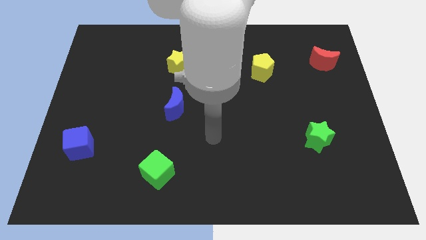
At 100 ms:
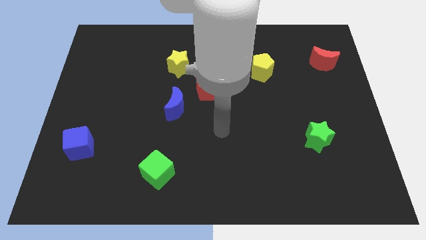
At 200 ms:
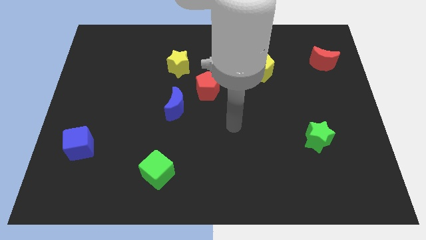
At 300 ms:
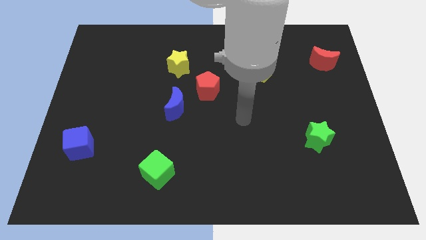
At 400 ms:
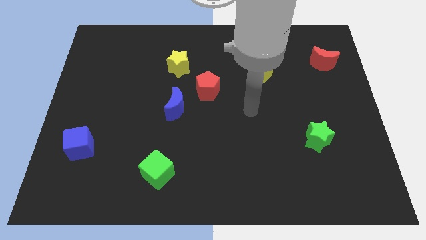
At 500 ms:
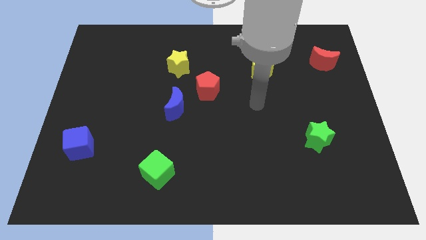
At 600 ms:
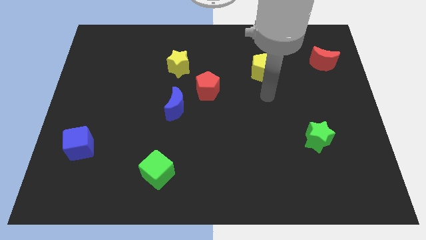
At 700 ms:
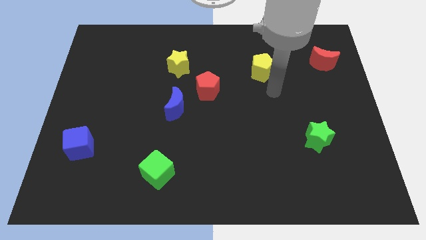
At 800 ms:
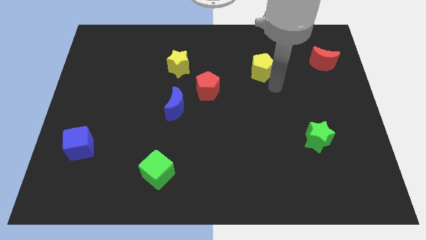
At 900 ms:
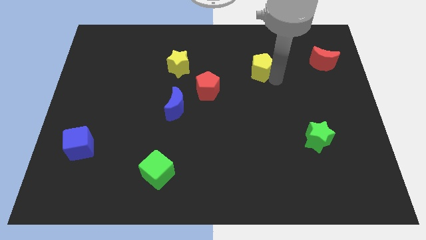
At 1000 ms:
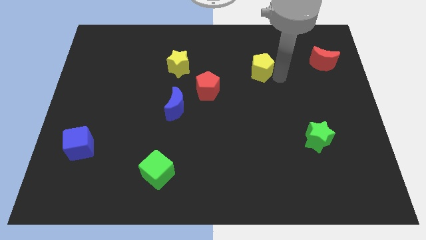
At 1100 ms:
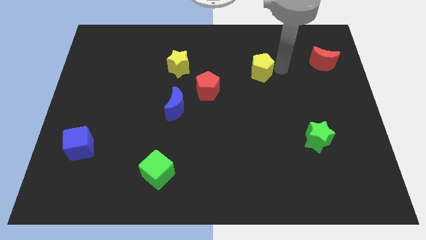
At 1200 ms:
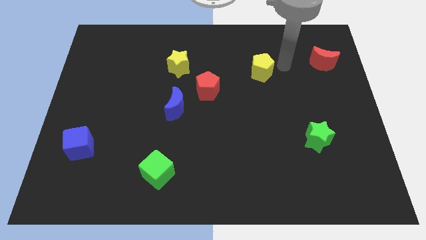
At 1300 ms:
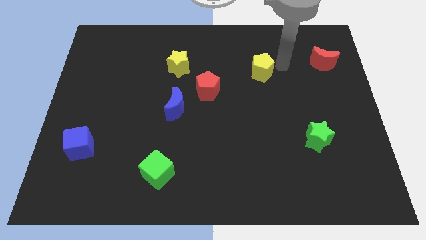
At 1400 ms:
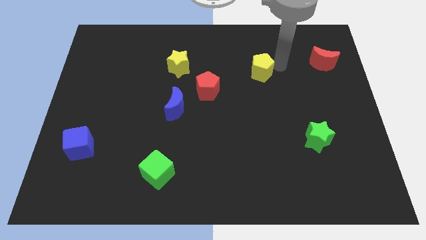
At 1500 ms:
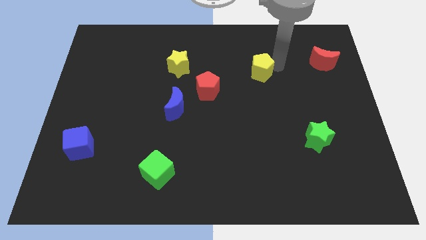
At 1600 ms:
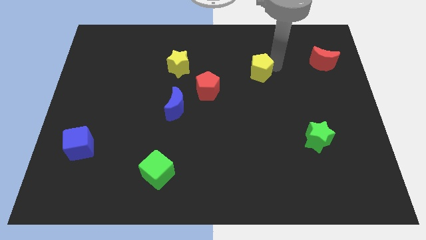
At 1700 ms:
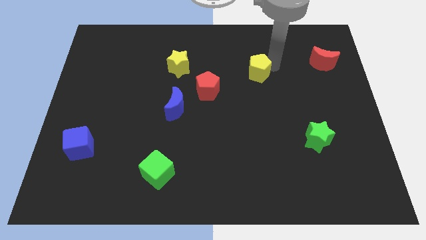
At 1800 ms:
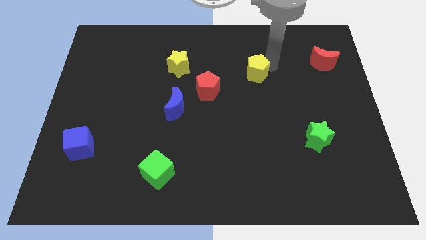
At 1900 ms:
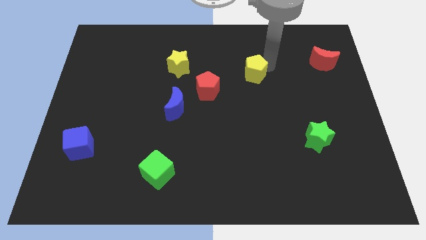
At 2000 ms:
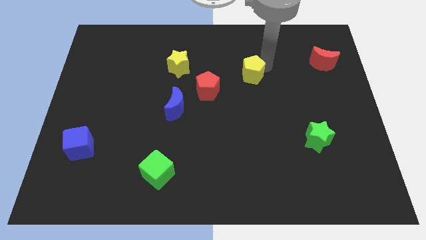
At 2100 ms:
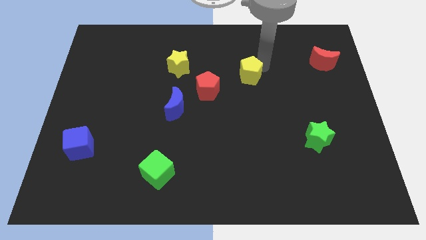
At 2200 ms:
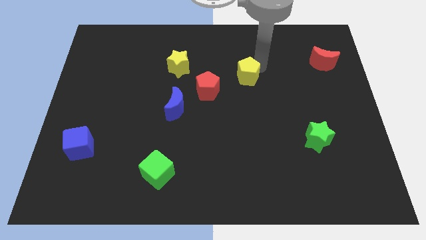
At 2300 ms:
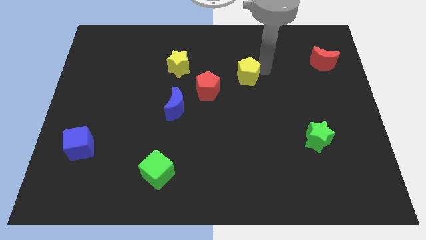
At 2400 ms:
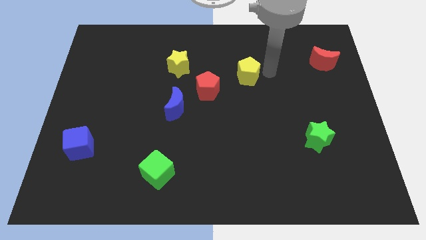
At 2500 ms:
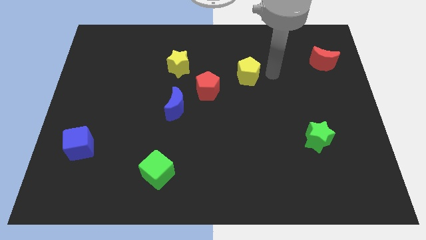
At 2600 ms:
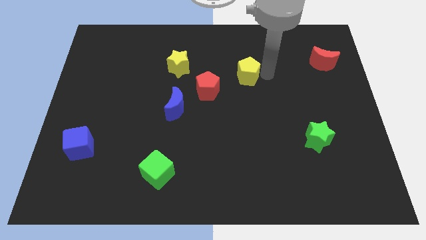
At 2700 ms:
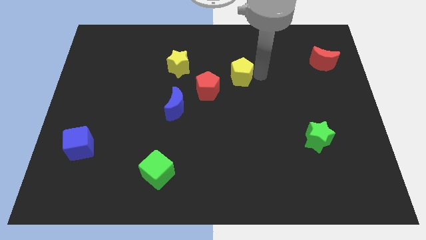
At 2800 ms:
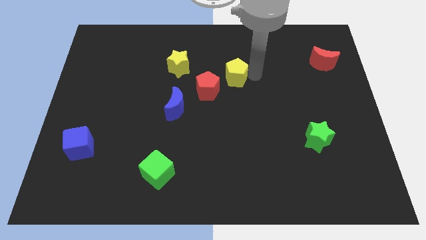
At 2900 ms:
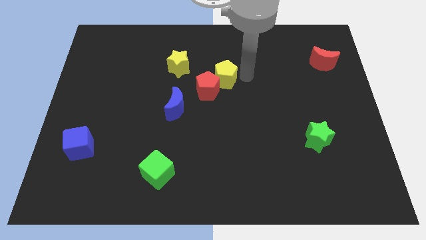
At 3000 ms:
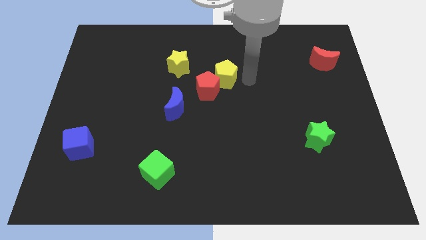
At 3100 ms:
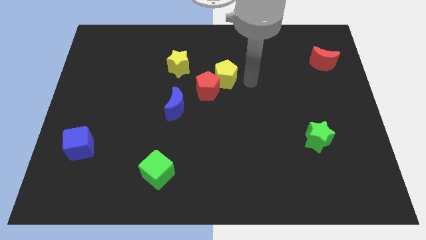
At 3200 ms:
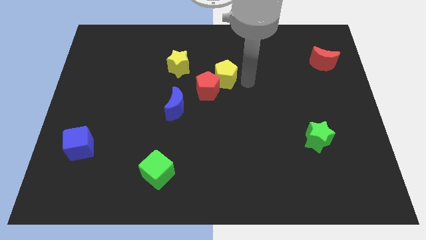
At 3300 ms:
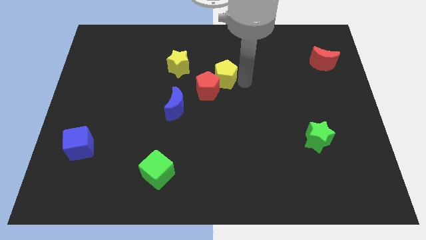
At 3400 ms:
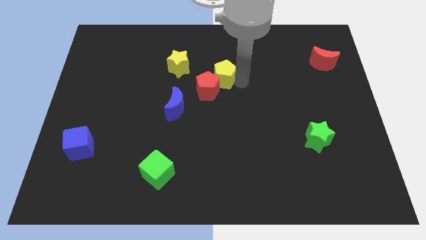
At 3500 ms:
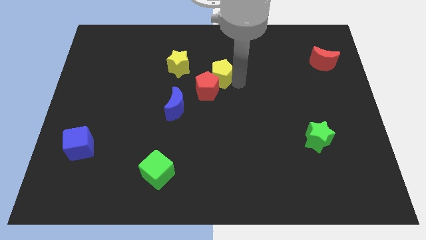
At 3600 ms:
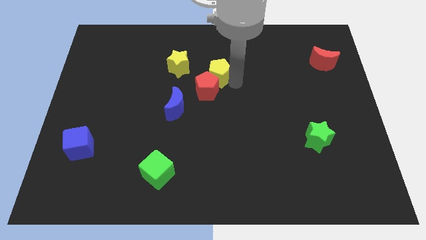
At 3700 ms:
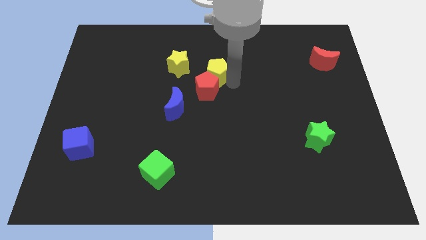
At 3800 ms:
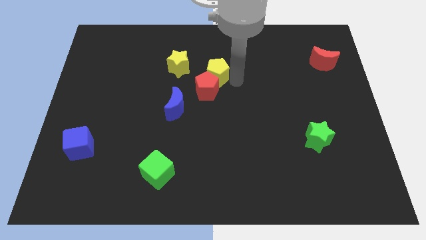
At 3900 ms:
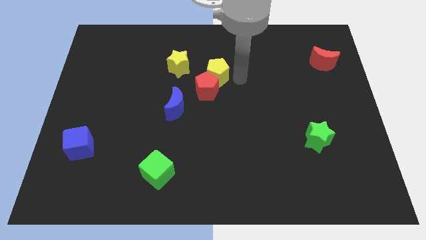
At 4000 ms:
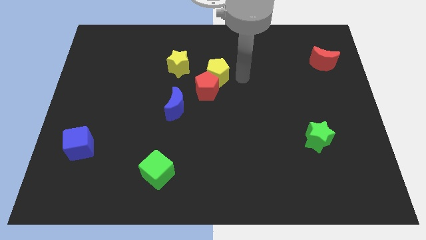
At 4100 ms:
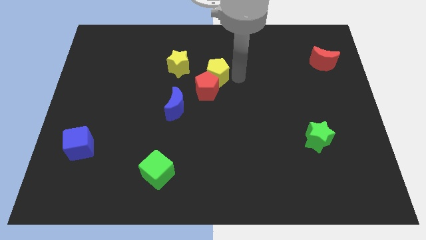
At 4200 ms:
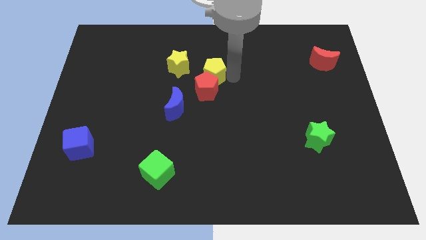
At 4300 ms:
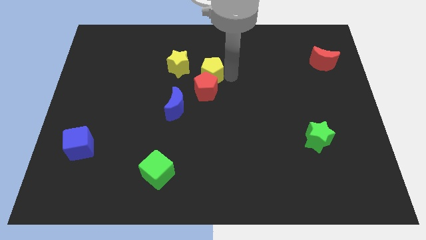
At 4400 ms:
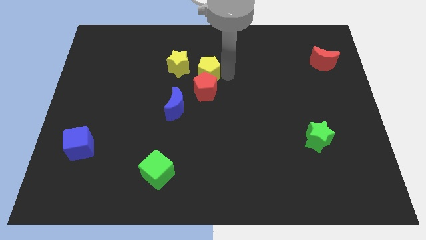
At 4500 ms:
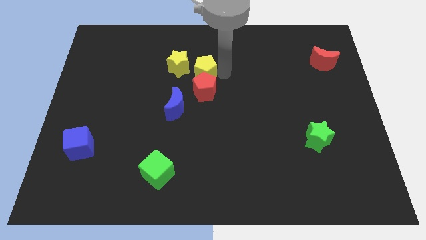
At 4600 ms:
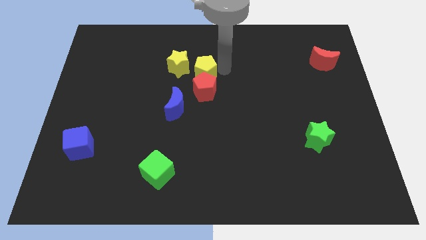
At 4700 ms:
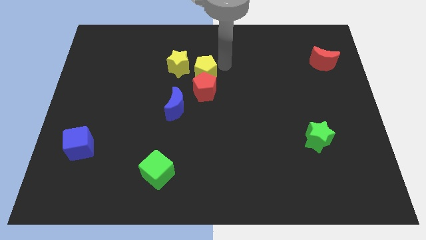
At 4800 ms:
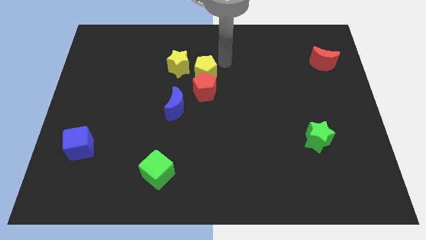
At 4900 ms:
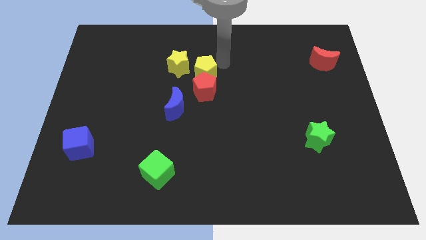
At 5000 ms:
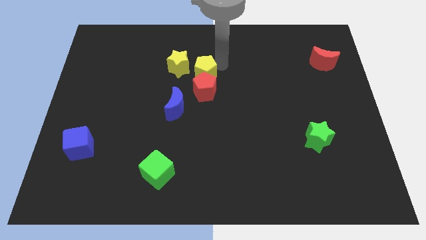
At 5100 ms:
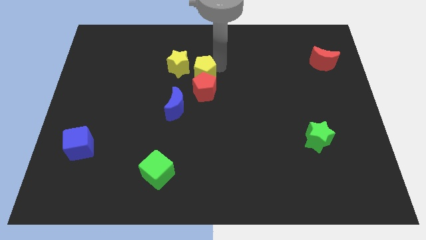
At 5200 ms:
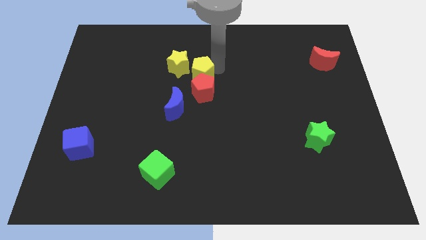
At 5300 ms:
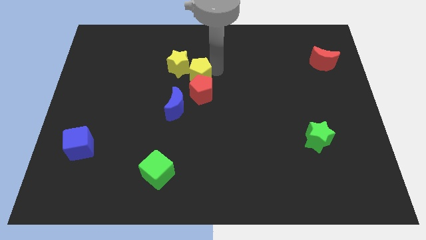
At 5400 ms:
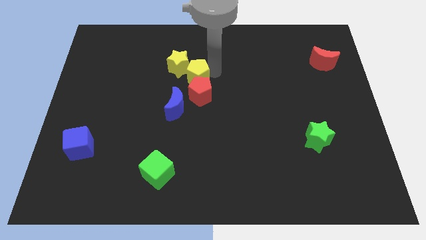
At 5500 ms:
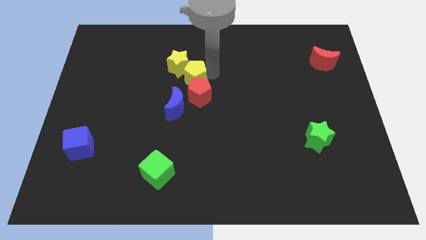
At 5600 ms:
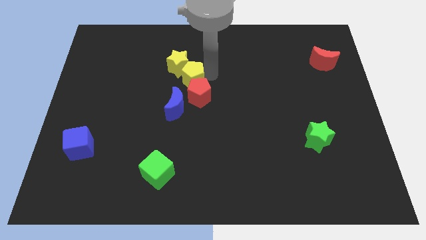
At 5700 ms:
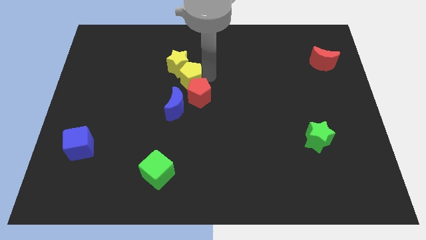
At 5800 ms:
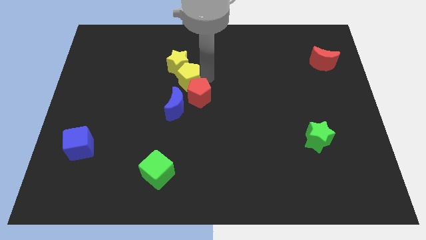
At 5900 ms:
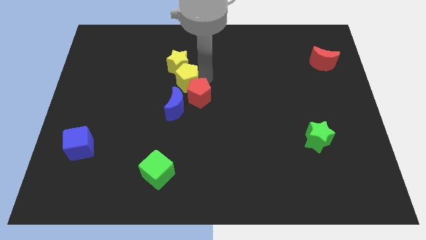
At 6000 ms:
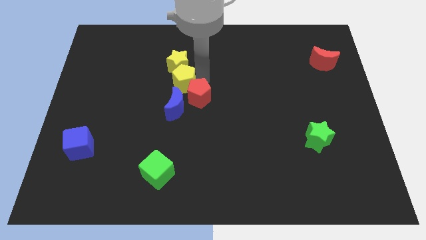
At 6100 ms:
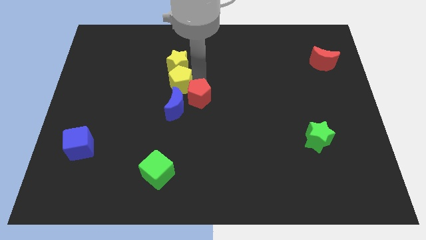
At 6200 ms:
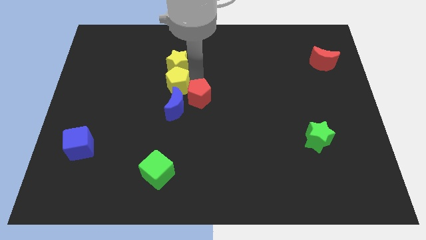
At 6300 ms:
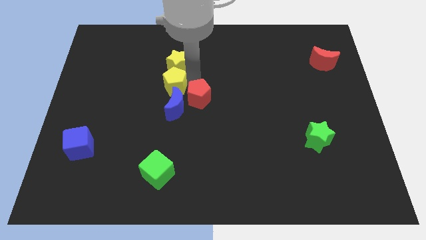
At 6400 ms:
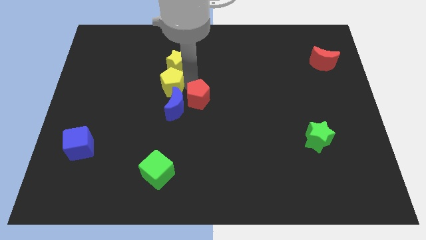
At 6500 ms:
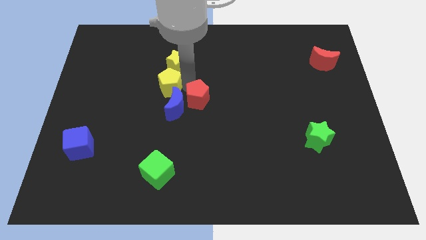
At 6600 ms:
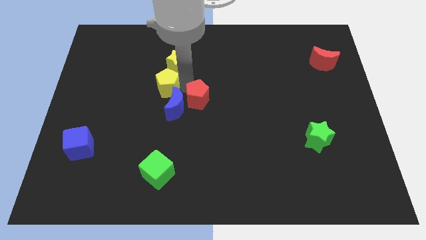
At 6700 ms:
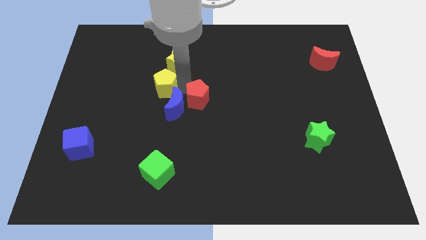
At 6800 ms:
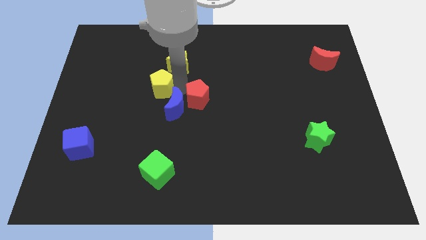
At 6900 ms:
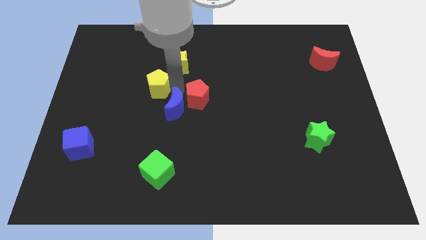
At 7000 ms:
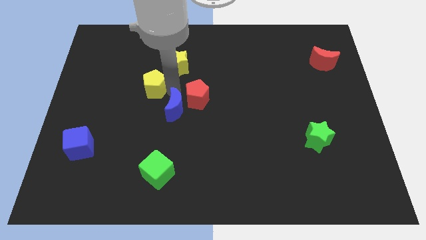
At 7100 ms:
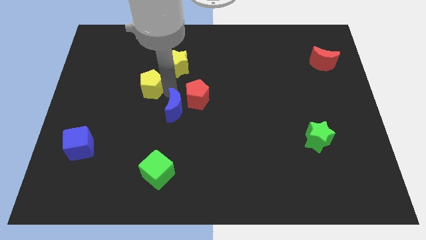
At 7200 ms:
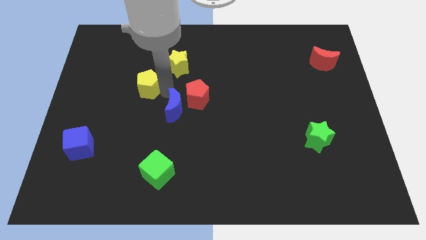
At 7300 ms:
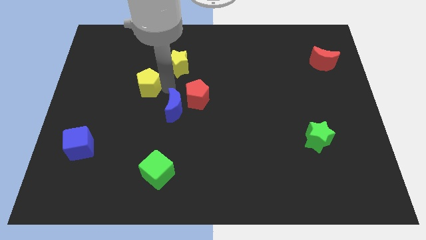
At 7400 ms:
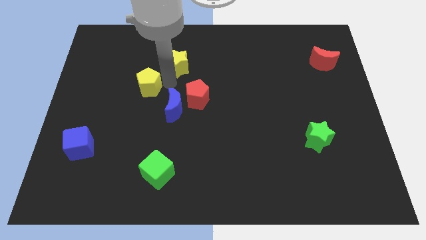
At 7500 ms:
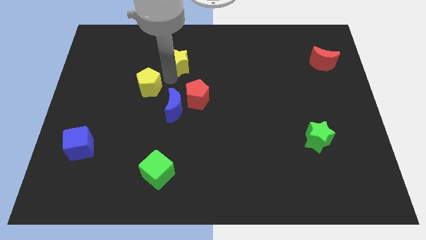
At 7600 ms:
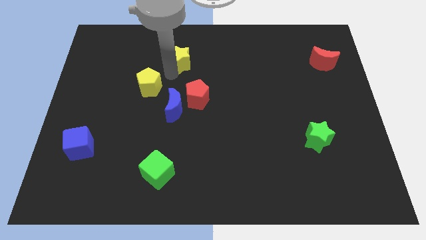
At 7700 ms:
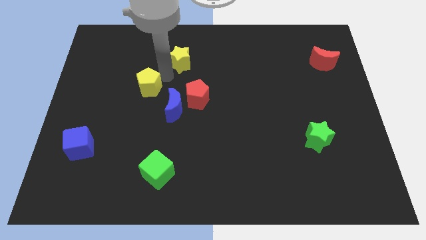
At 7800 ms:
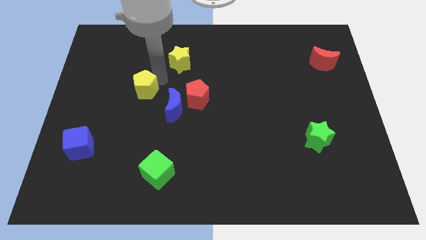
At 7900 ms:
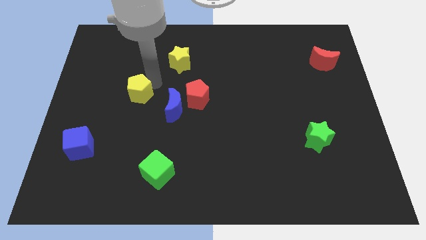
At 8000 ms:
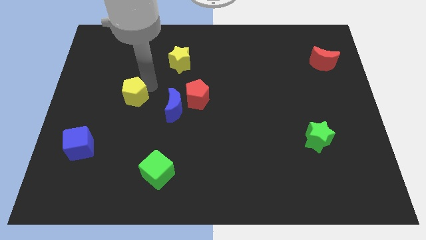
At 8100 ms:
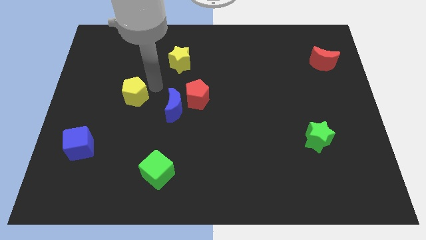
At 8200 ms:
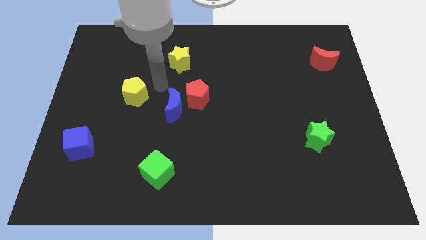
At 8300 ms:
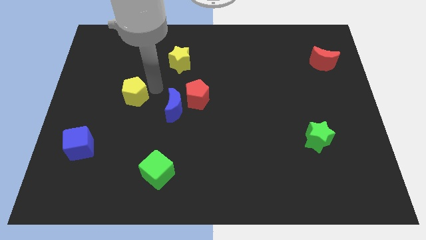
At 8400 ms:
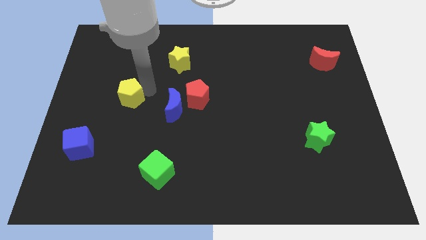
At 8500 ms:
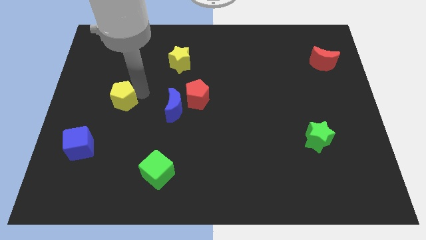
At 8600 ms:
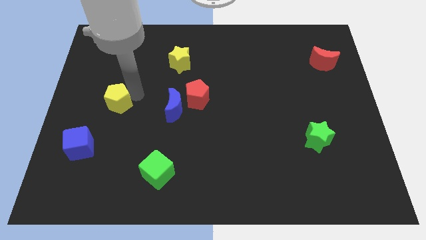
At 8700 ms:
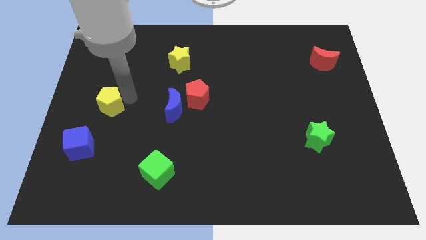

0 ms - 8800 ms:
slide the yellow pentagon to the top of the blue cube
